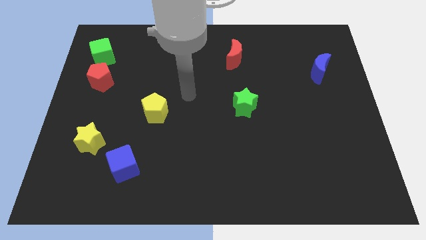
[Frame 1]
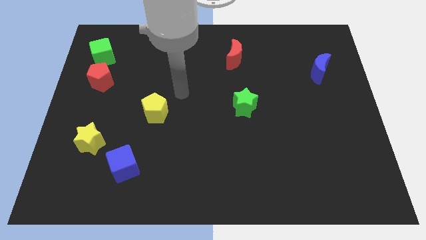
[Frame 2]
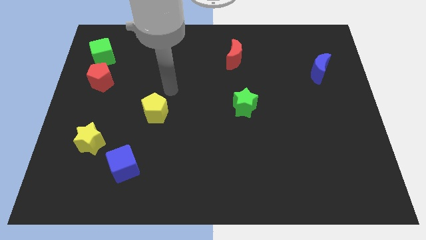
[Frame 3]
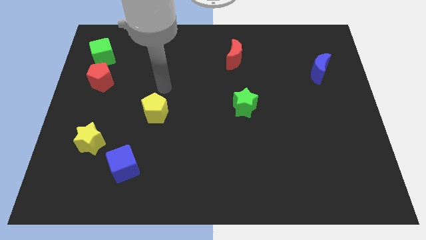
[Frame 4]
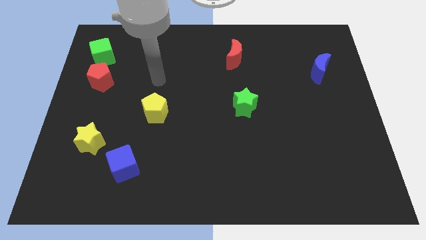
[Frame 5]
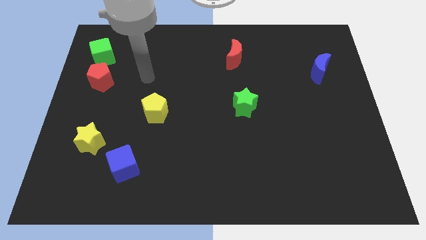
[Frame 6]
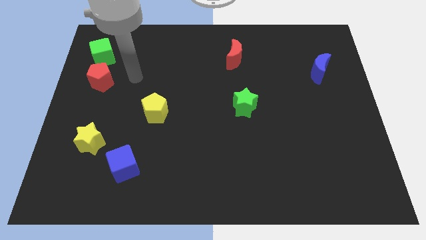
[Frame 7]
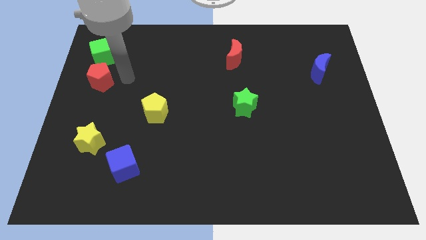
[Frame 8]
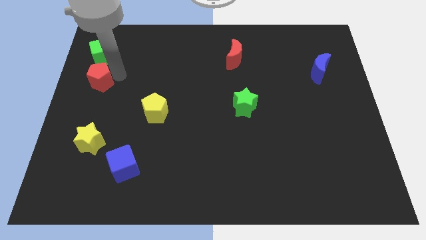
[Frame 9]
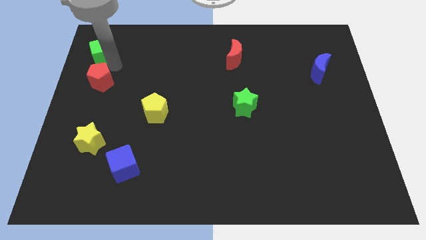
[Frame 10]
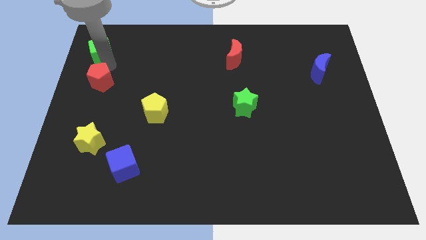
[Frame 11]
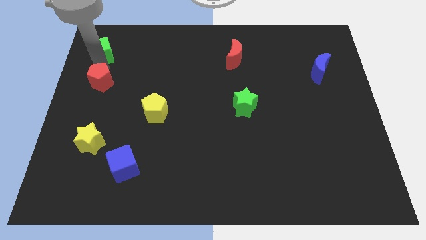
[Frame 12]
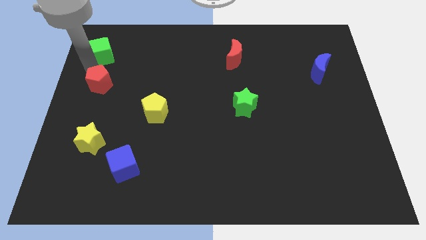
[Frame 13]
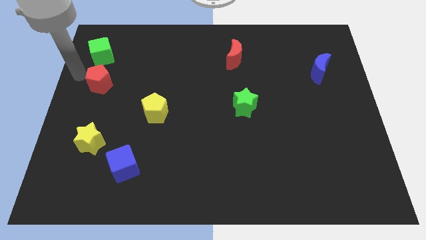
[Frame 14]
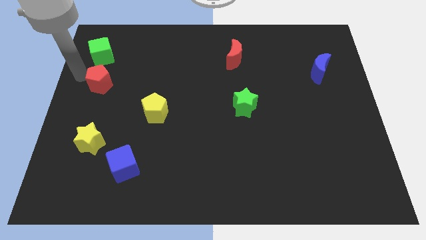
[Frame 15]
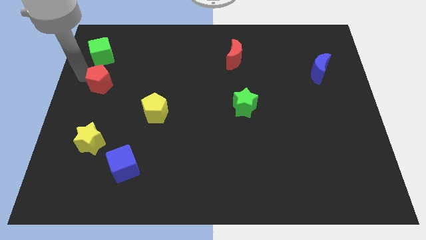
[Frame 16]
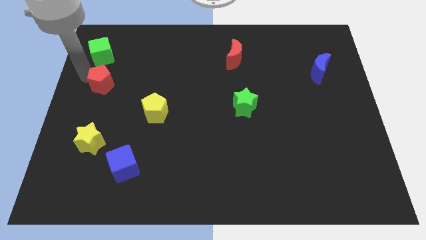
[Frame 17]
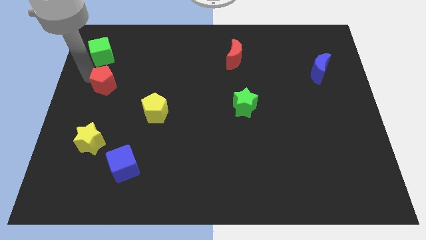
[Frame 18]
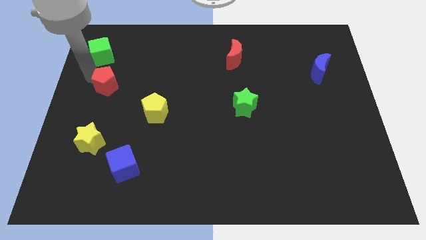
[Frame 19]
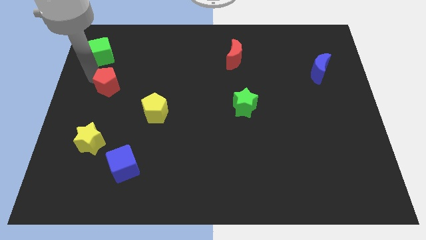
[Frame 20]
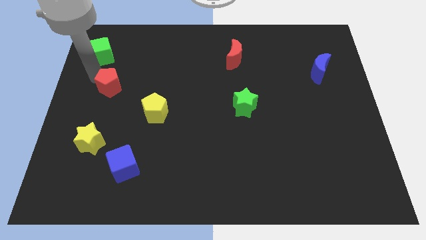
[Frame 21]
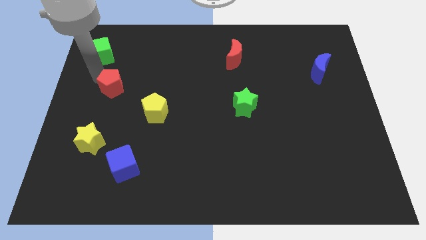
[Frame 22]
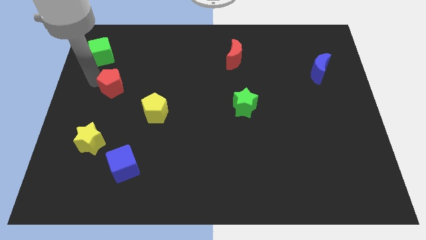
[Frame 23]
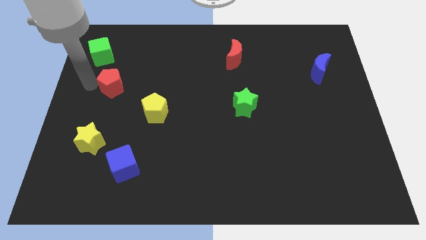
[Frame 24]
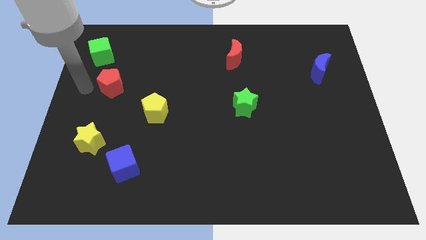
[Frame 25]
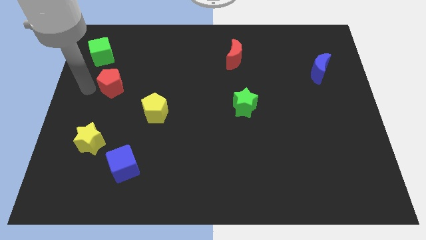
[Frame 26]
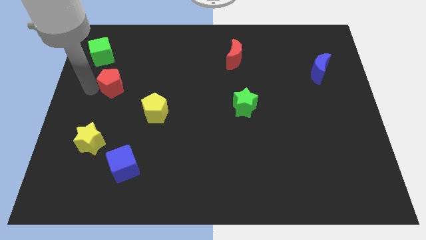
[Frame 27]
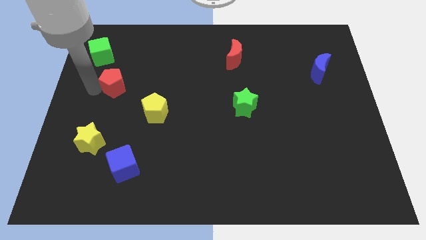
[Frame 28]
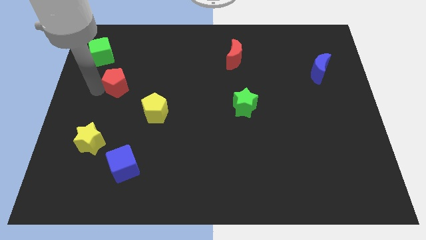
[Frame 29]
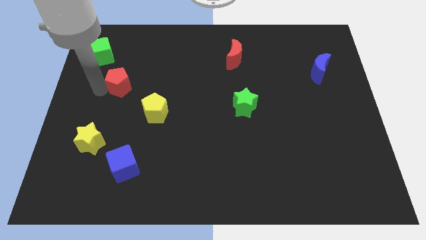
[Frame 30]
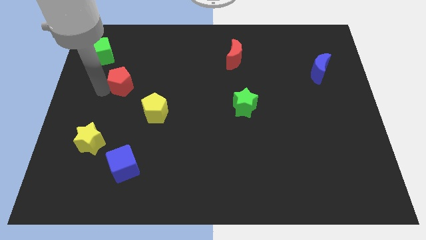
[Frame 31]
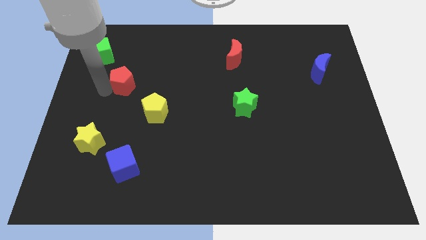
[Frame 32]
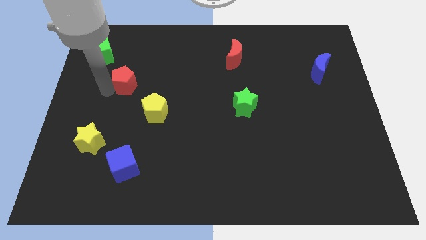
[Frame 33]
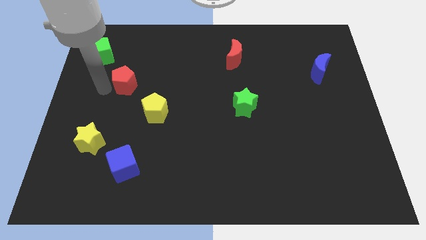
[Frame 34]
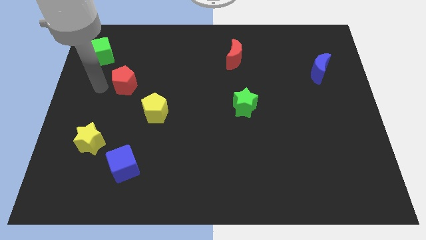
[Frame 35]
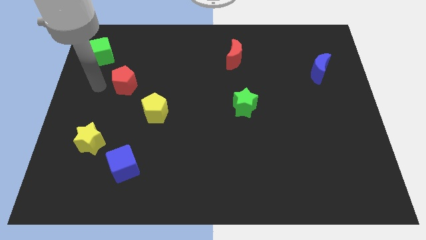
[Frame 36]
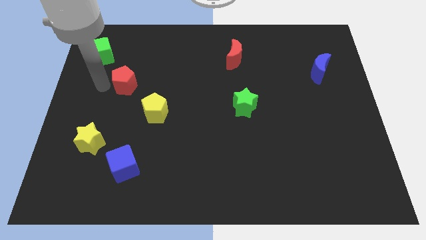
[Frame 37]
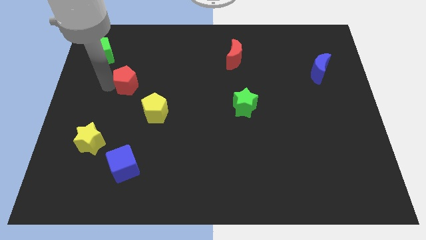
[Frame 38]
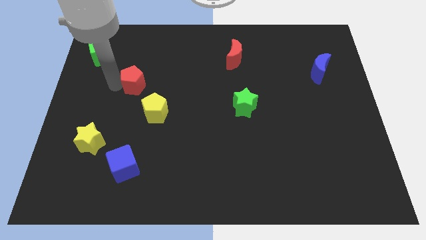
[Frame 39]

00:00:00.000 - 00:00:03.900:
slide the red pentagon a little right

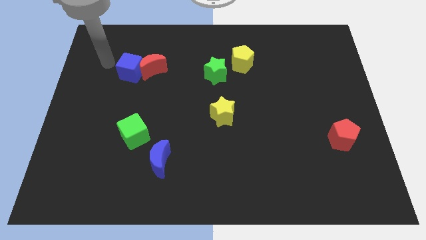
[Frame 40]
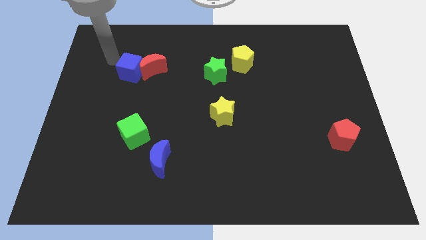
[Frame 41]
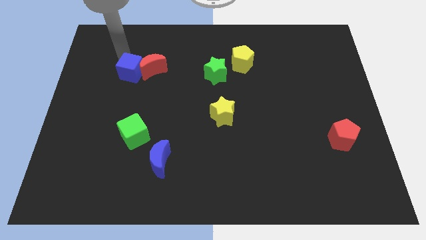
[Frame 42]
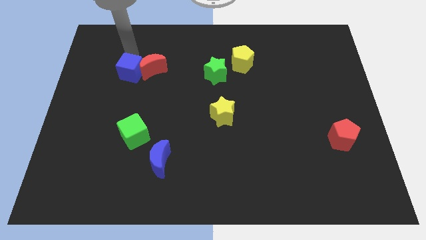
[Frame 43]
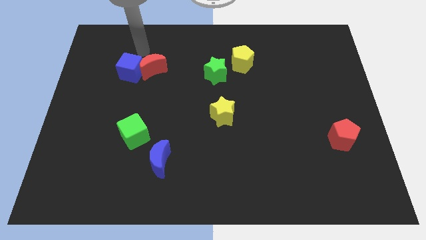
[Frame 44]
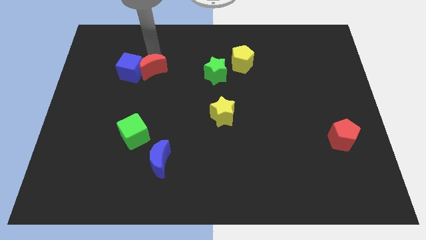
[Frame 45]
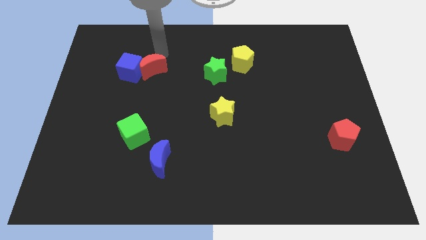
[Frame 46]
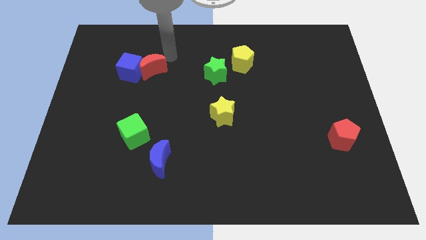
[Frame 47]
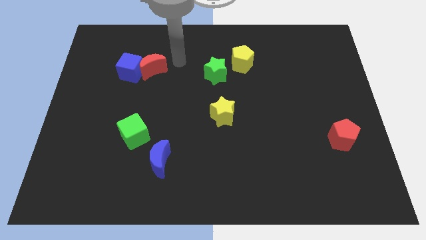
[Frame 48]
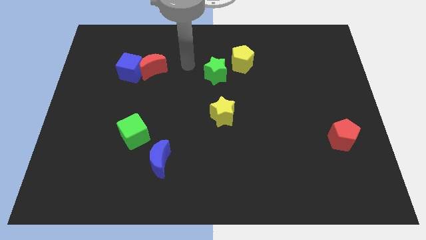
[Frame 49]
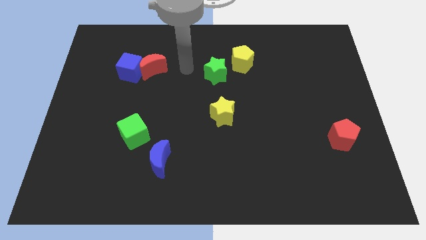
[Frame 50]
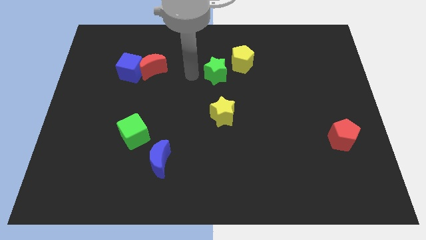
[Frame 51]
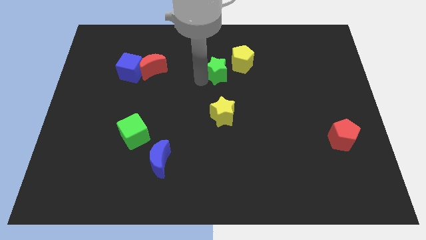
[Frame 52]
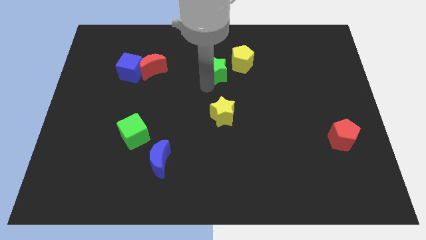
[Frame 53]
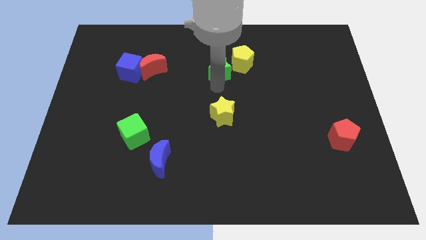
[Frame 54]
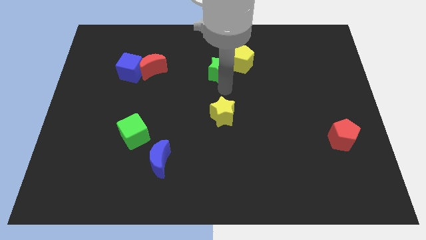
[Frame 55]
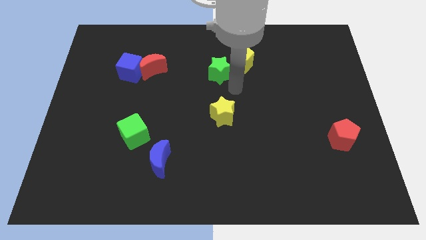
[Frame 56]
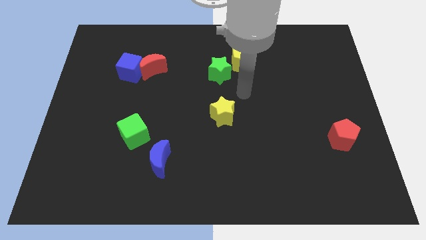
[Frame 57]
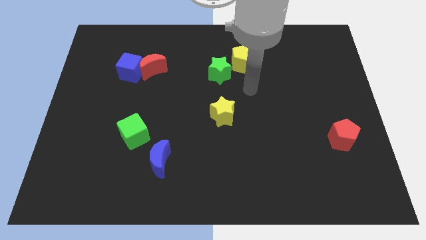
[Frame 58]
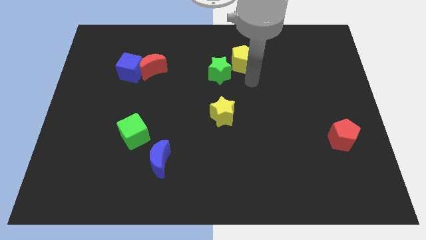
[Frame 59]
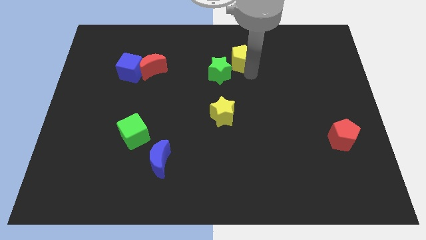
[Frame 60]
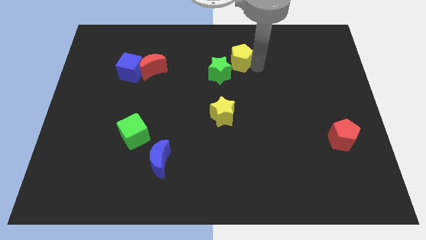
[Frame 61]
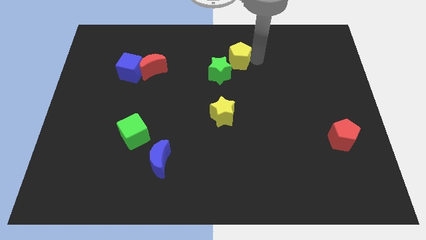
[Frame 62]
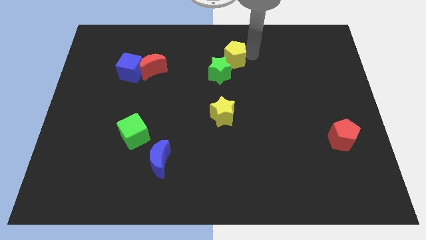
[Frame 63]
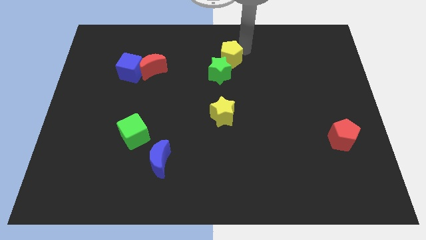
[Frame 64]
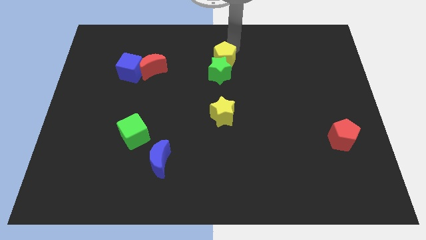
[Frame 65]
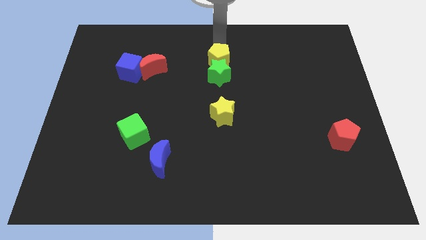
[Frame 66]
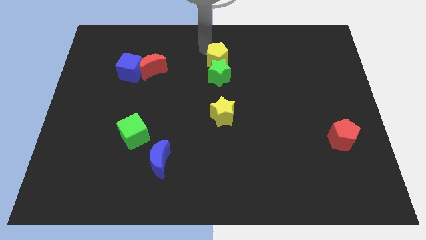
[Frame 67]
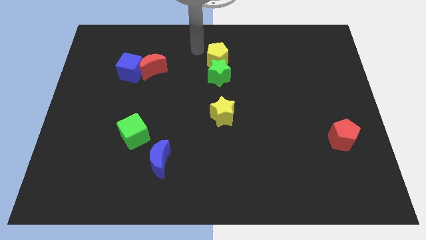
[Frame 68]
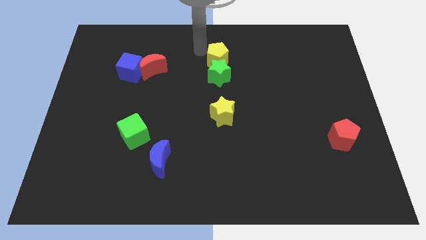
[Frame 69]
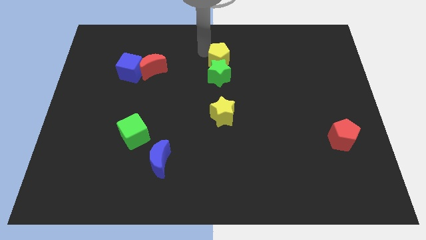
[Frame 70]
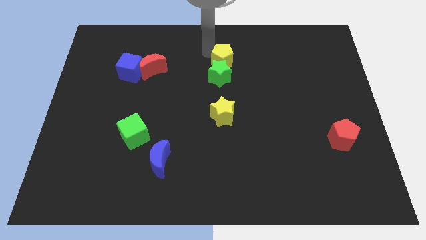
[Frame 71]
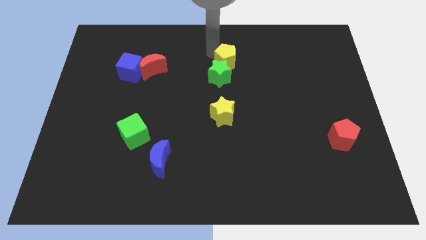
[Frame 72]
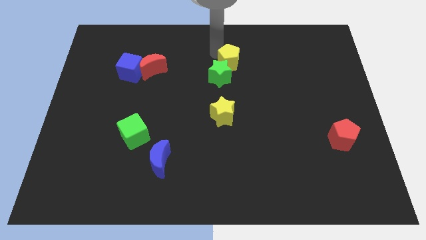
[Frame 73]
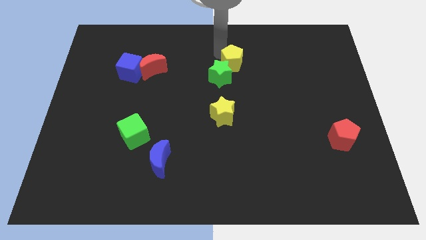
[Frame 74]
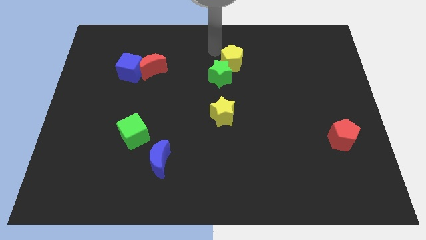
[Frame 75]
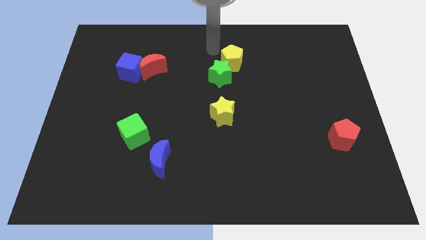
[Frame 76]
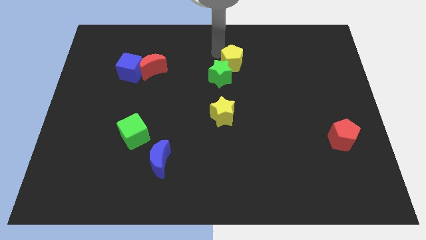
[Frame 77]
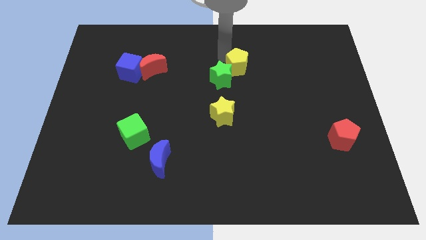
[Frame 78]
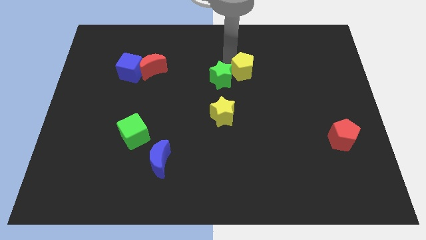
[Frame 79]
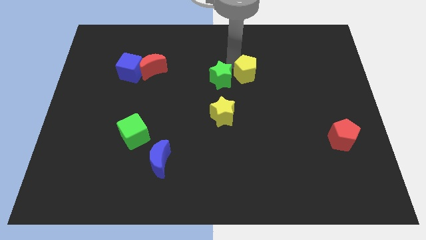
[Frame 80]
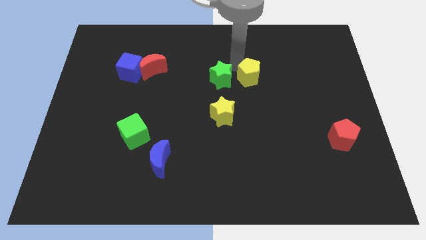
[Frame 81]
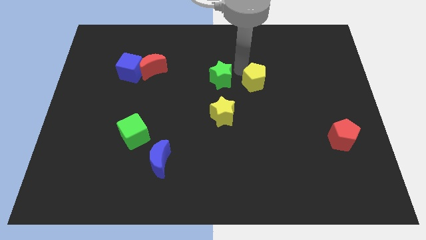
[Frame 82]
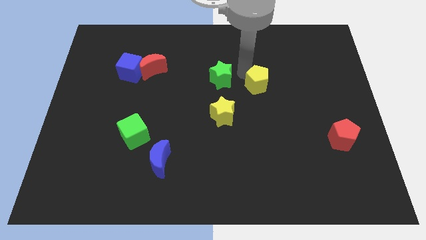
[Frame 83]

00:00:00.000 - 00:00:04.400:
slide the yellow pentagon downwards and to the right slightly

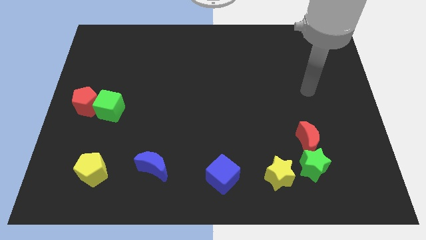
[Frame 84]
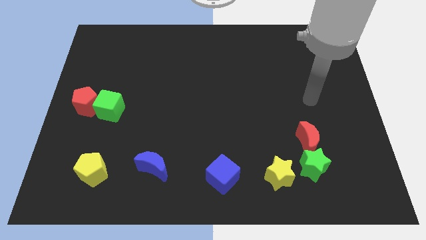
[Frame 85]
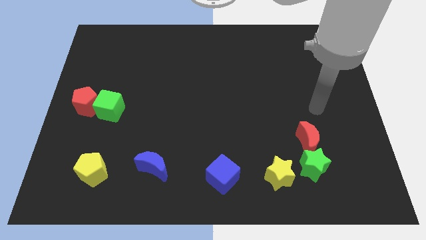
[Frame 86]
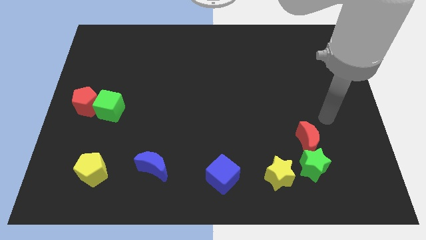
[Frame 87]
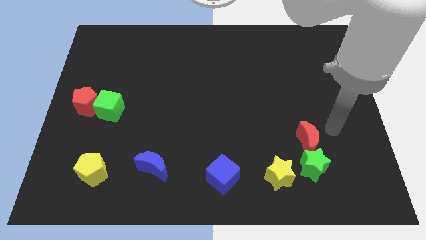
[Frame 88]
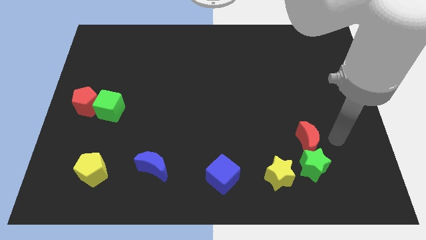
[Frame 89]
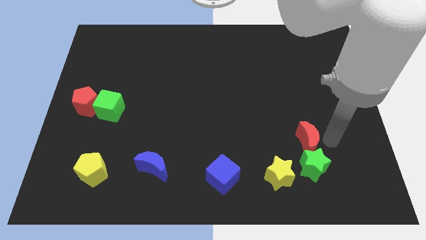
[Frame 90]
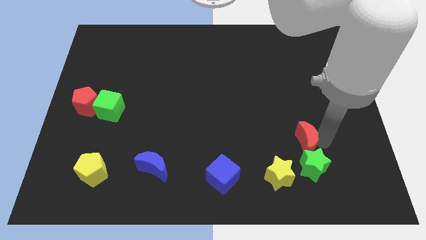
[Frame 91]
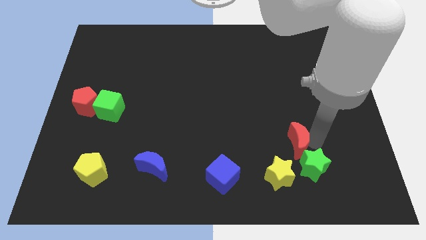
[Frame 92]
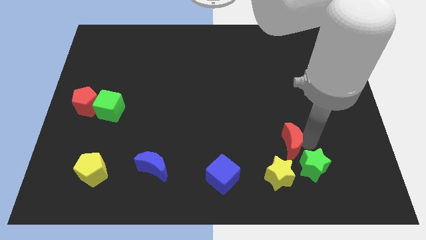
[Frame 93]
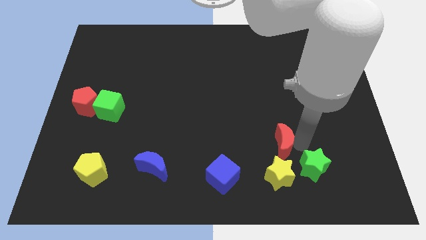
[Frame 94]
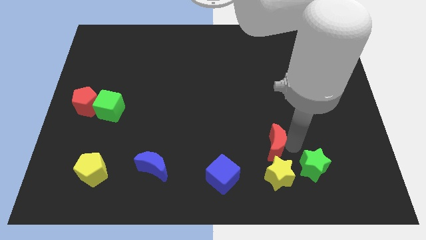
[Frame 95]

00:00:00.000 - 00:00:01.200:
move the red moon somewhat to the left
